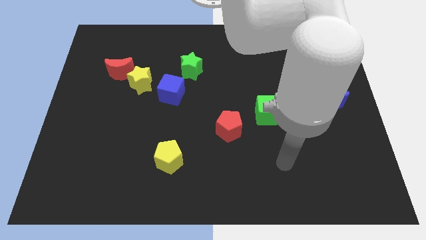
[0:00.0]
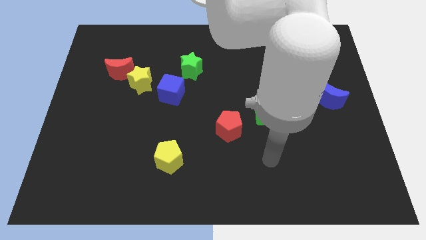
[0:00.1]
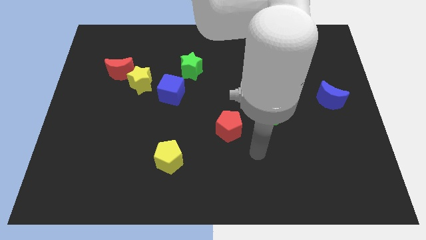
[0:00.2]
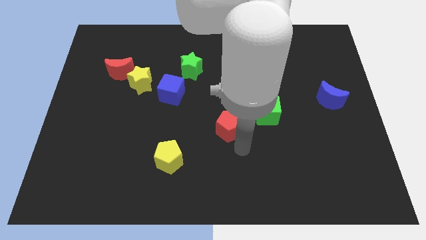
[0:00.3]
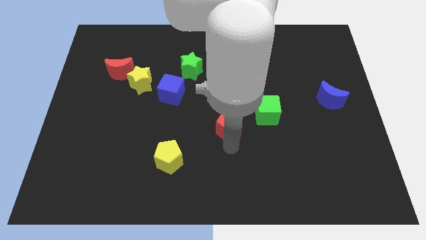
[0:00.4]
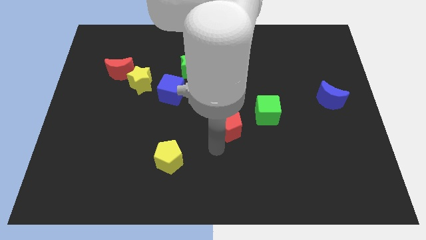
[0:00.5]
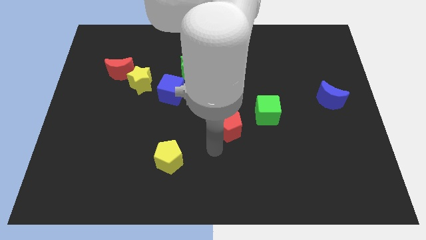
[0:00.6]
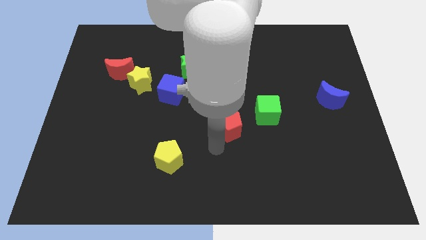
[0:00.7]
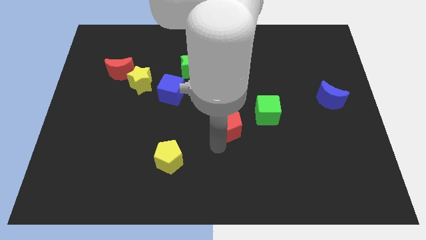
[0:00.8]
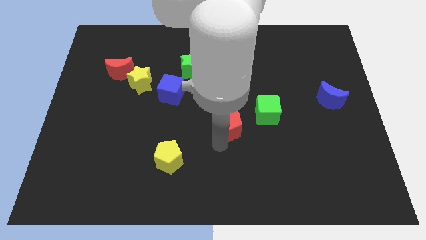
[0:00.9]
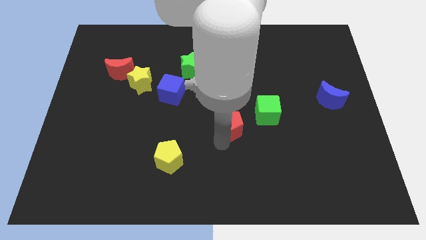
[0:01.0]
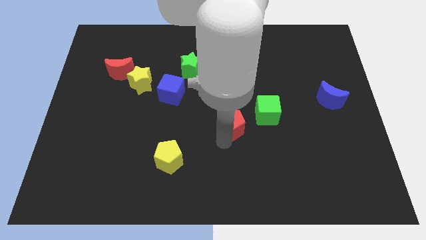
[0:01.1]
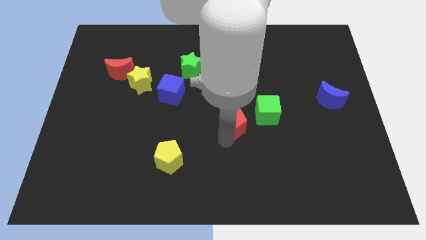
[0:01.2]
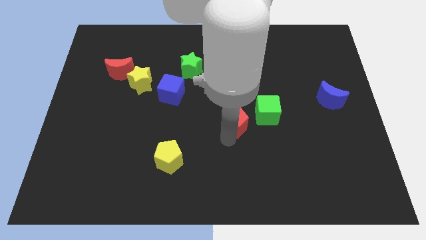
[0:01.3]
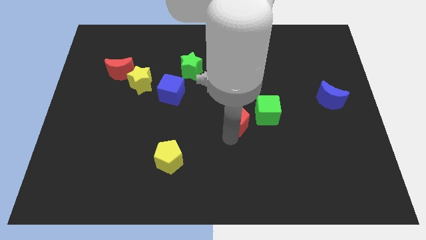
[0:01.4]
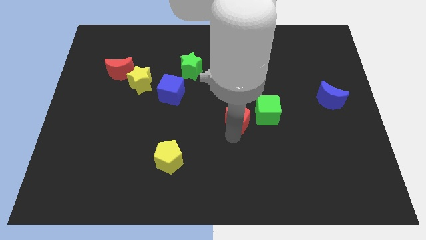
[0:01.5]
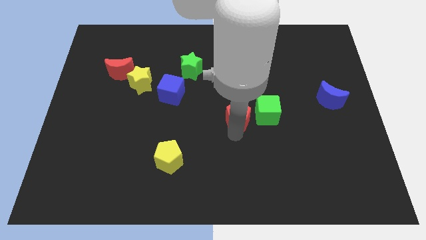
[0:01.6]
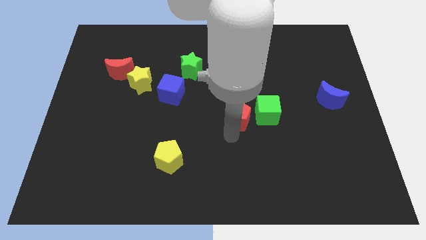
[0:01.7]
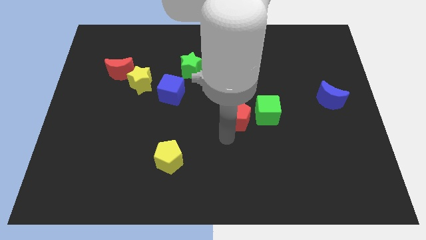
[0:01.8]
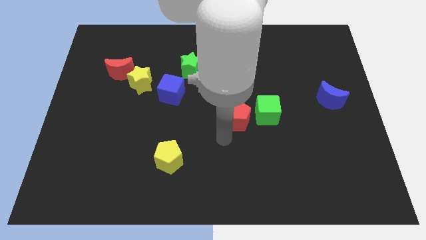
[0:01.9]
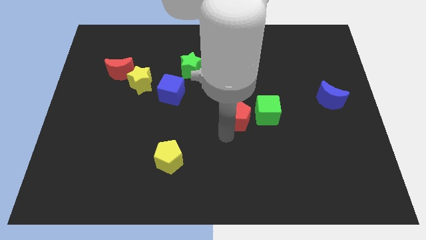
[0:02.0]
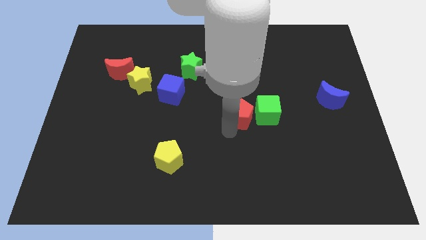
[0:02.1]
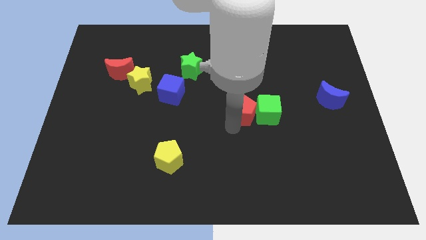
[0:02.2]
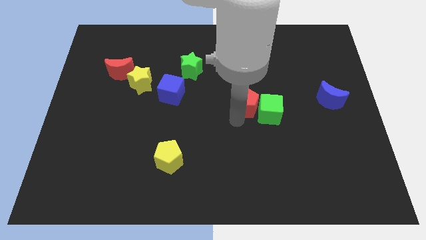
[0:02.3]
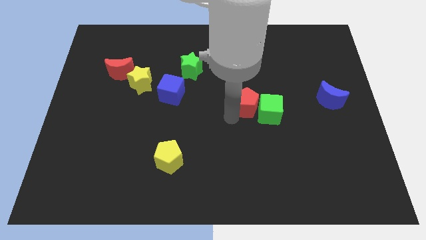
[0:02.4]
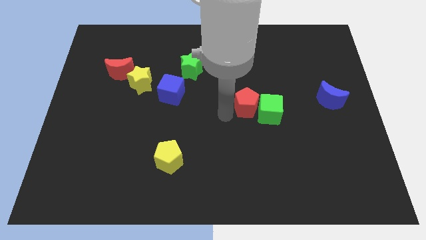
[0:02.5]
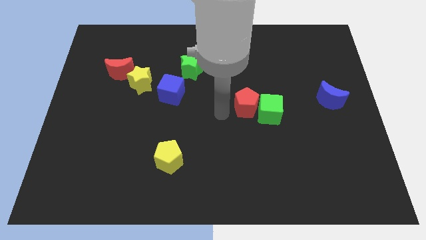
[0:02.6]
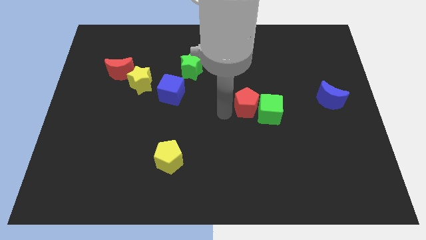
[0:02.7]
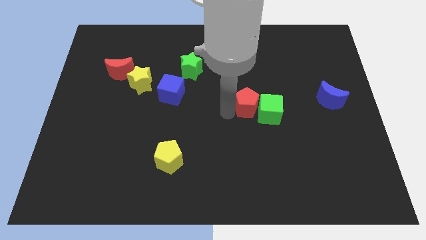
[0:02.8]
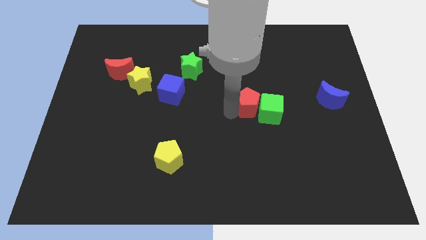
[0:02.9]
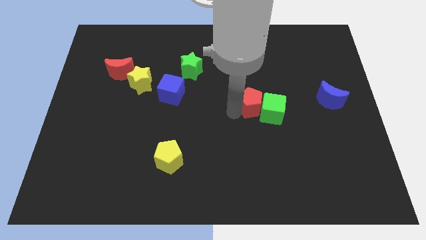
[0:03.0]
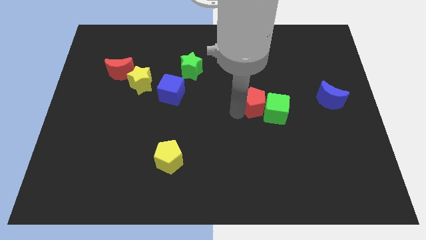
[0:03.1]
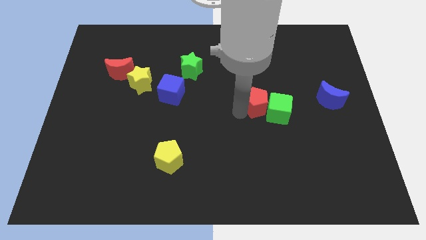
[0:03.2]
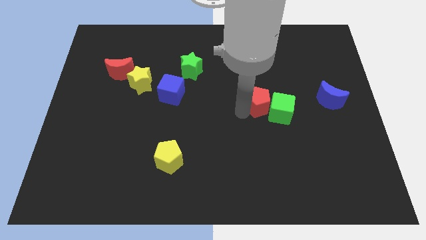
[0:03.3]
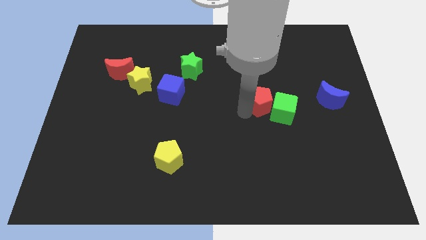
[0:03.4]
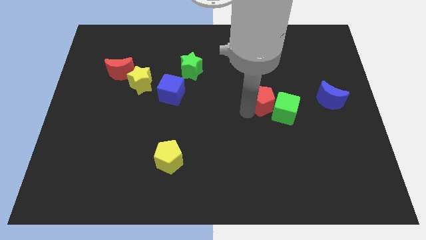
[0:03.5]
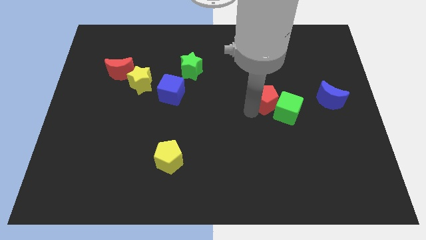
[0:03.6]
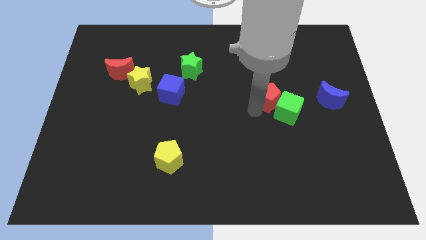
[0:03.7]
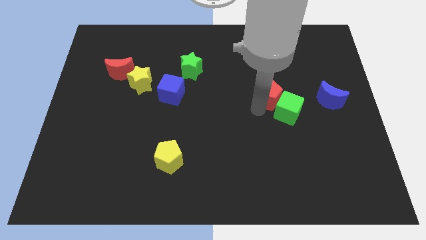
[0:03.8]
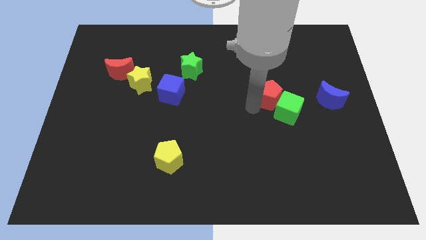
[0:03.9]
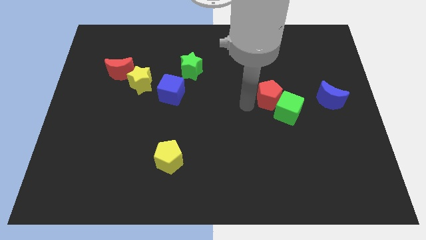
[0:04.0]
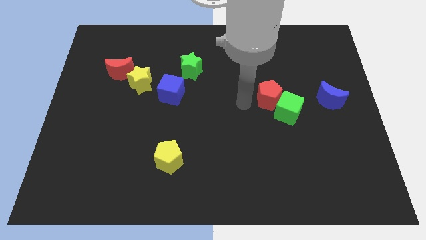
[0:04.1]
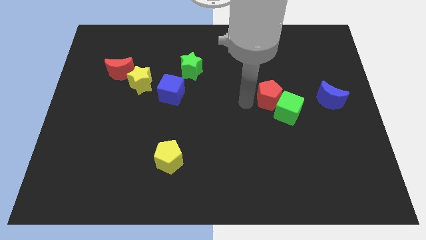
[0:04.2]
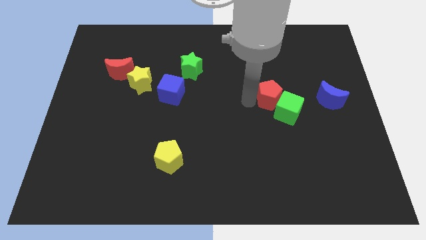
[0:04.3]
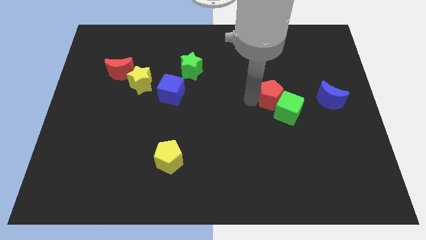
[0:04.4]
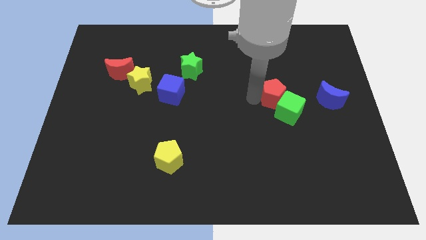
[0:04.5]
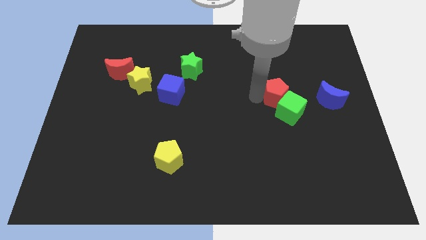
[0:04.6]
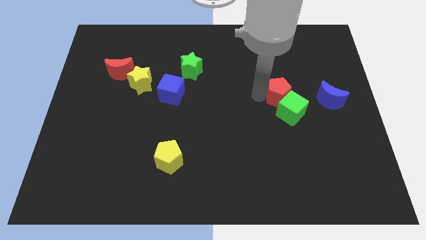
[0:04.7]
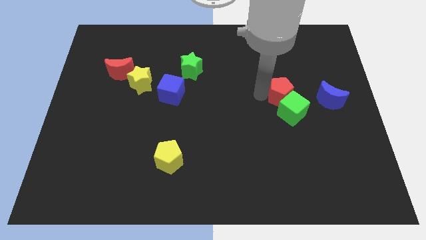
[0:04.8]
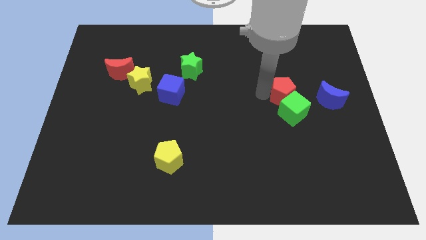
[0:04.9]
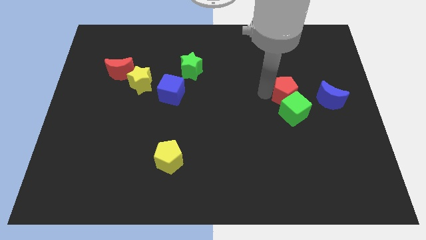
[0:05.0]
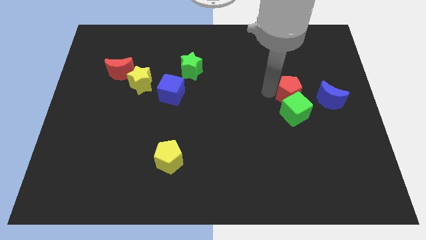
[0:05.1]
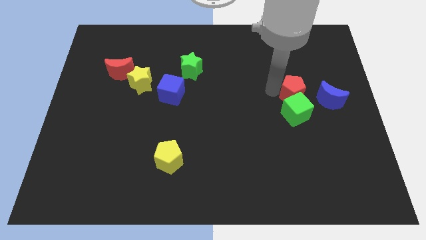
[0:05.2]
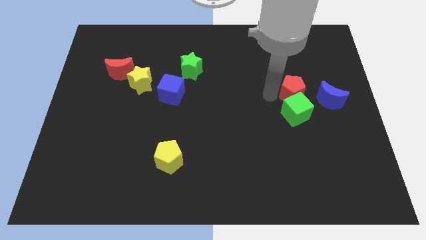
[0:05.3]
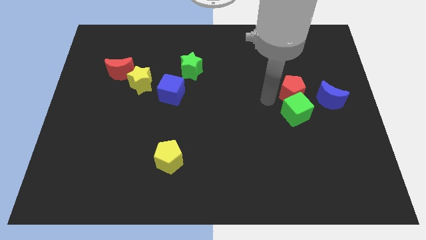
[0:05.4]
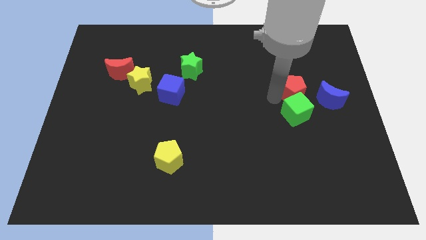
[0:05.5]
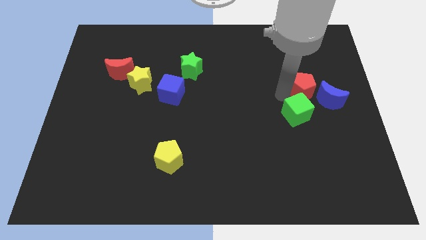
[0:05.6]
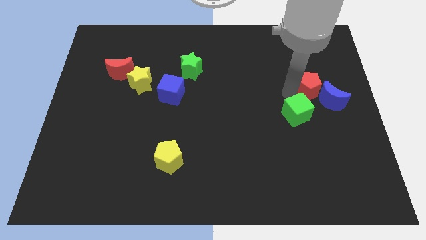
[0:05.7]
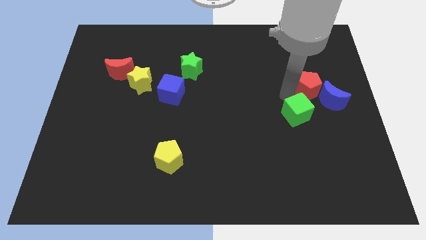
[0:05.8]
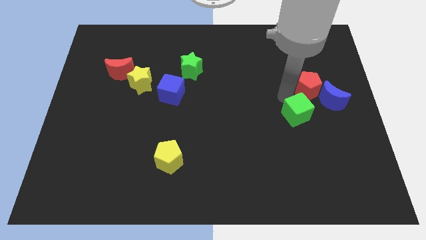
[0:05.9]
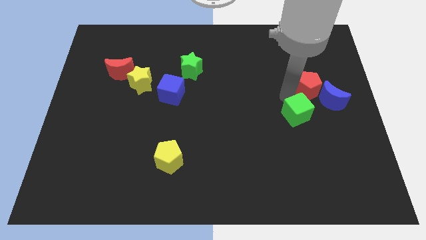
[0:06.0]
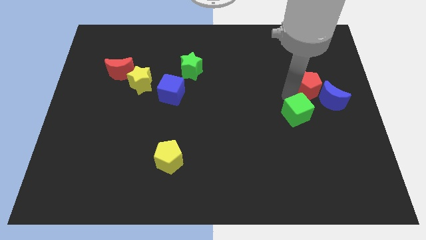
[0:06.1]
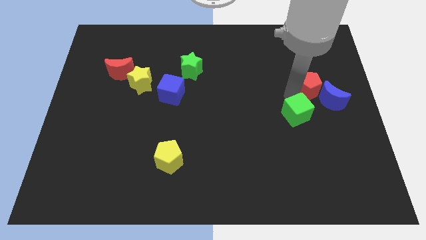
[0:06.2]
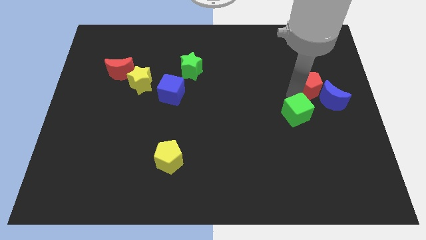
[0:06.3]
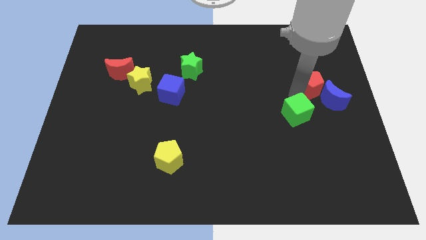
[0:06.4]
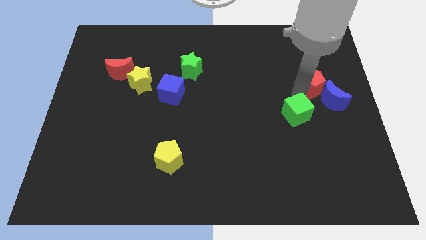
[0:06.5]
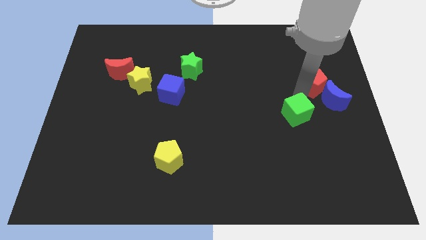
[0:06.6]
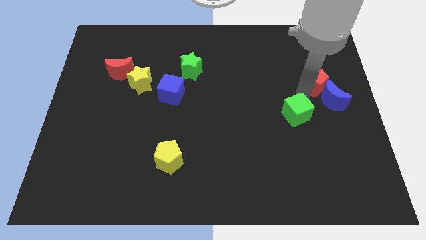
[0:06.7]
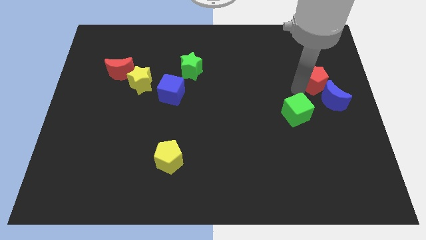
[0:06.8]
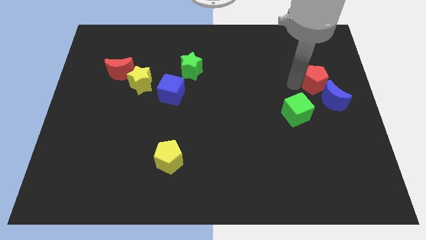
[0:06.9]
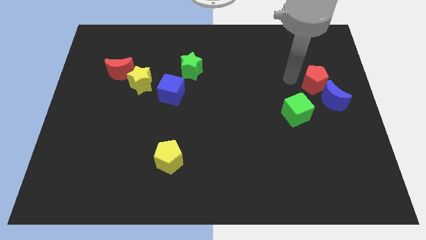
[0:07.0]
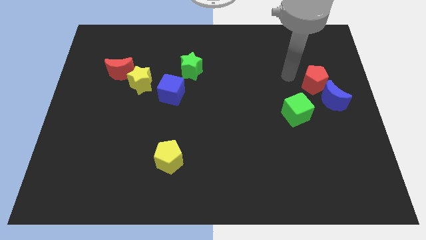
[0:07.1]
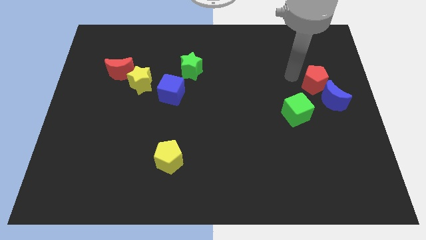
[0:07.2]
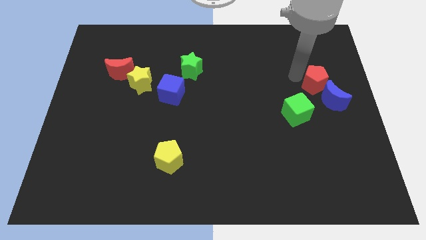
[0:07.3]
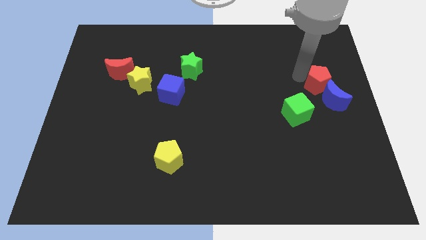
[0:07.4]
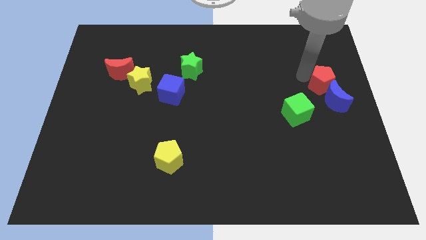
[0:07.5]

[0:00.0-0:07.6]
move the red pentagon to the right side of the board
